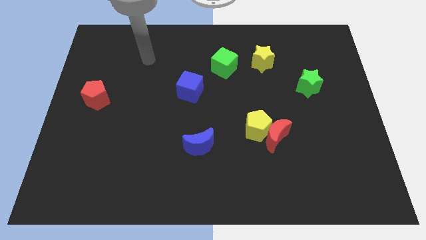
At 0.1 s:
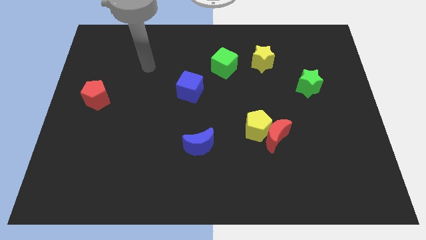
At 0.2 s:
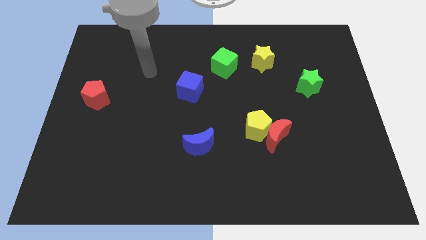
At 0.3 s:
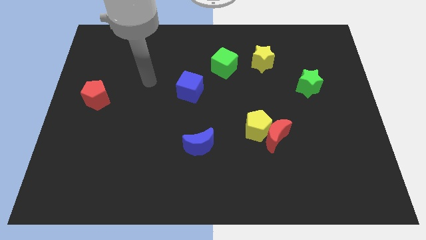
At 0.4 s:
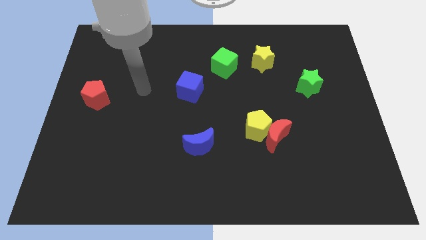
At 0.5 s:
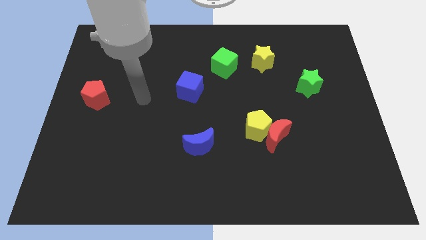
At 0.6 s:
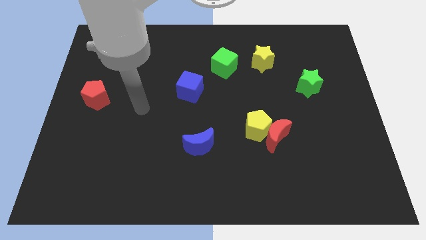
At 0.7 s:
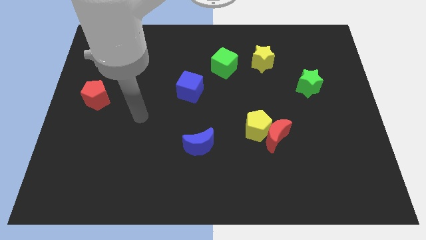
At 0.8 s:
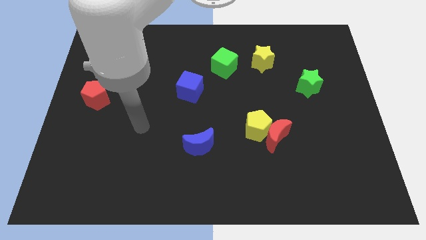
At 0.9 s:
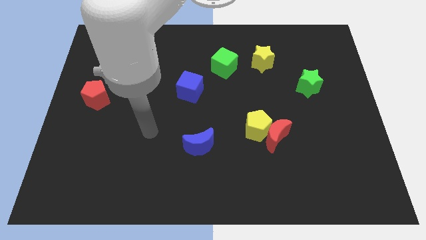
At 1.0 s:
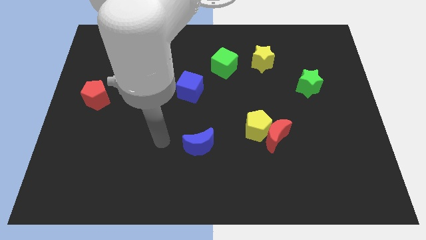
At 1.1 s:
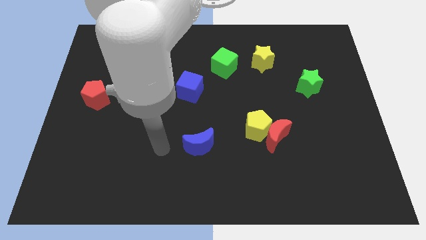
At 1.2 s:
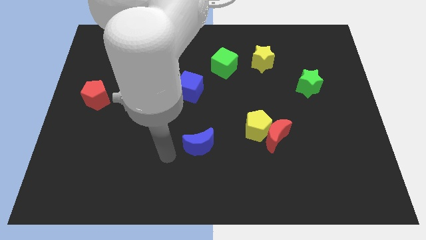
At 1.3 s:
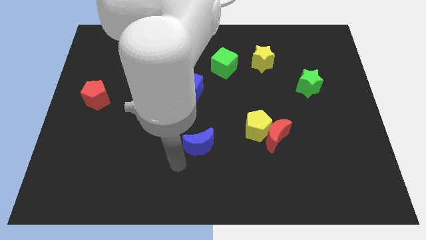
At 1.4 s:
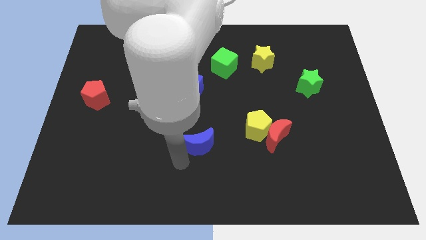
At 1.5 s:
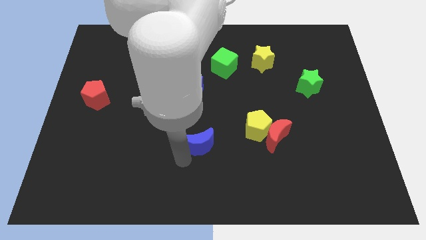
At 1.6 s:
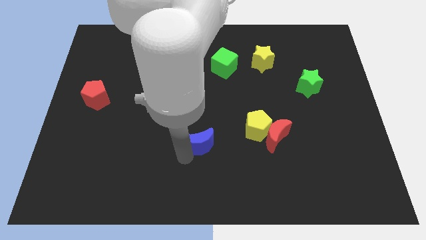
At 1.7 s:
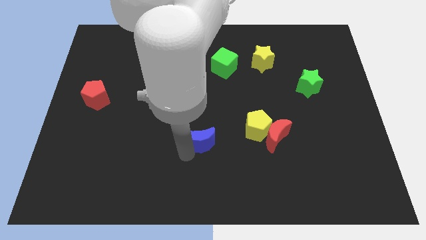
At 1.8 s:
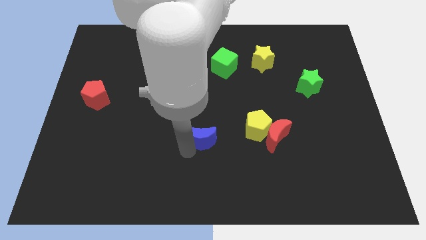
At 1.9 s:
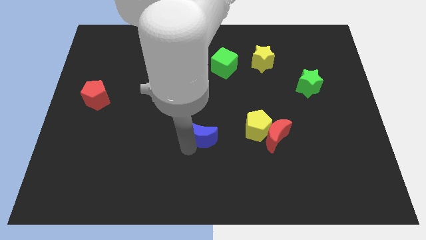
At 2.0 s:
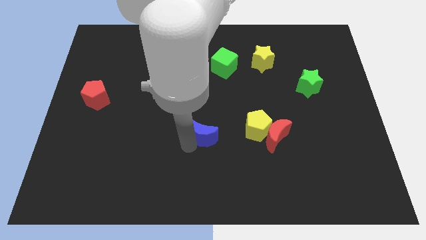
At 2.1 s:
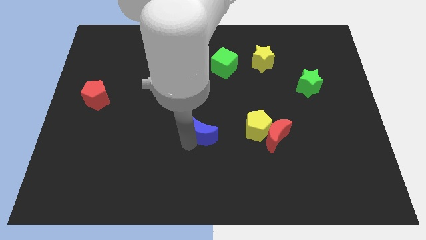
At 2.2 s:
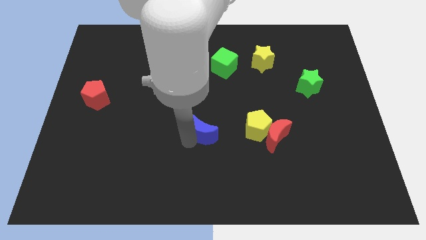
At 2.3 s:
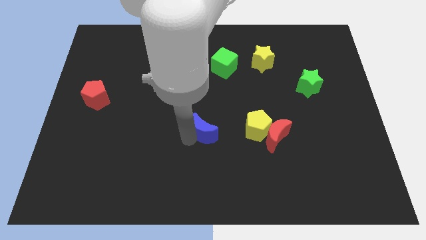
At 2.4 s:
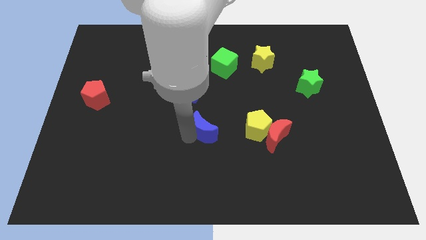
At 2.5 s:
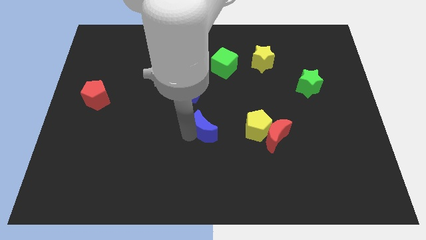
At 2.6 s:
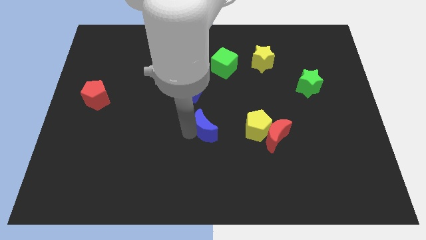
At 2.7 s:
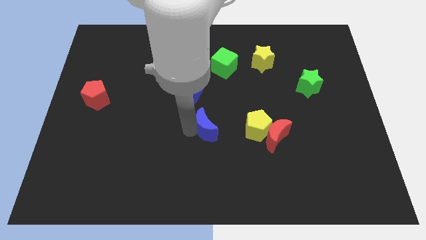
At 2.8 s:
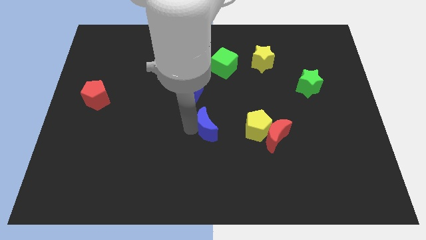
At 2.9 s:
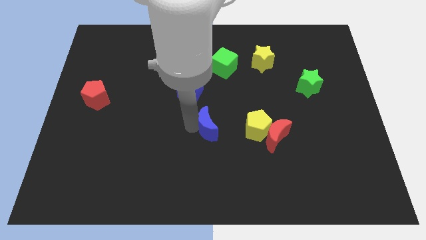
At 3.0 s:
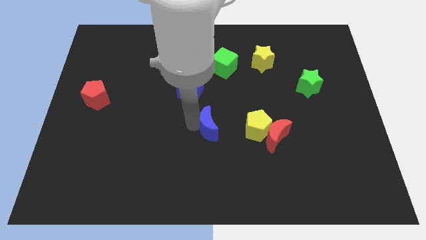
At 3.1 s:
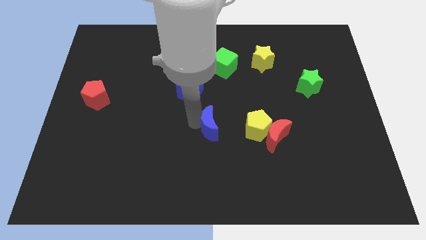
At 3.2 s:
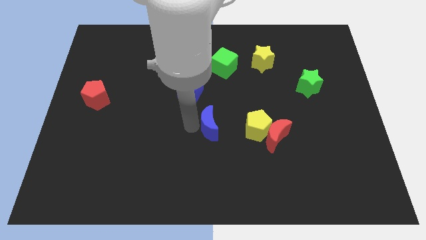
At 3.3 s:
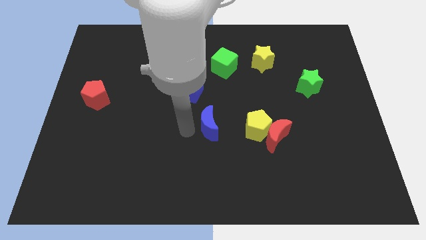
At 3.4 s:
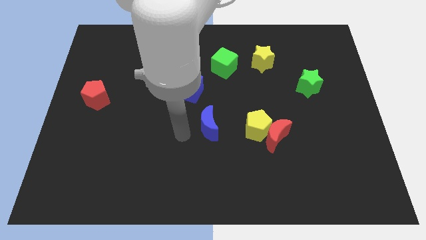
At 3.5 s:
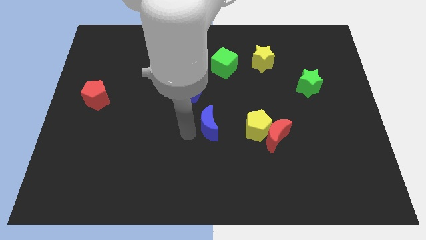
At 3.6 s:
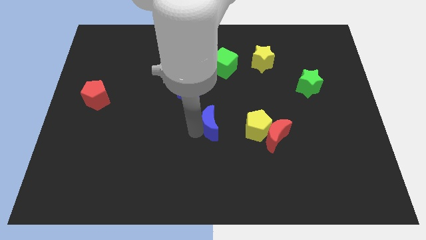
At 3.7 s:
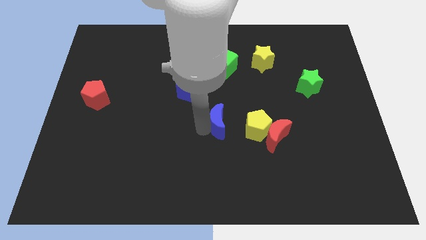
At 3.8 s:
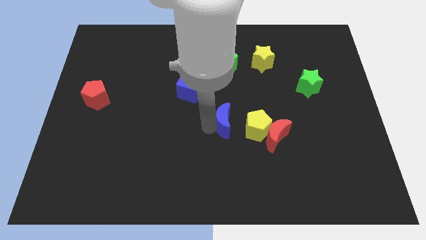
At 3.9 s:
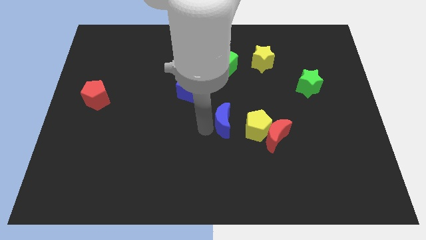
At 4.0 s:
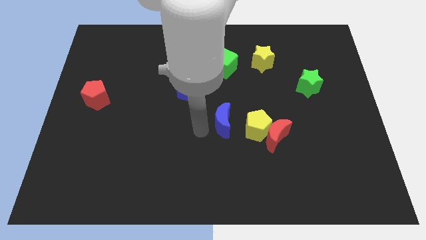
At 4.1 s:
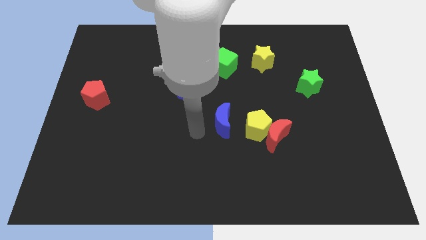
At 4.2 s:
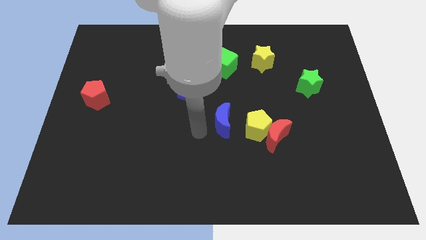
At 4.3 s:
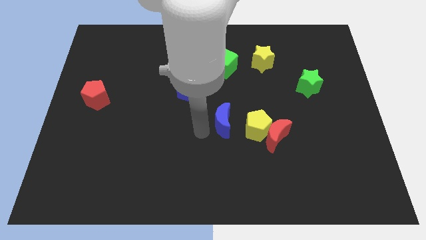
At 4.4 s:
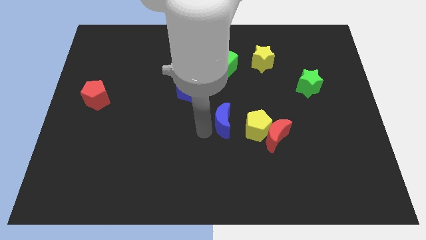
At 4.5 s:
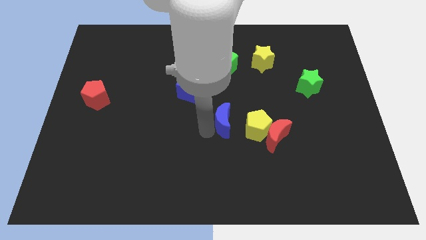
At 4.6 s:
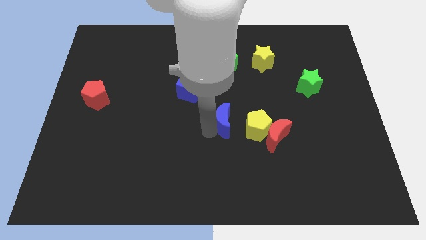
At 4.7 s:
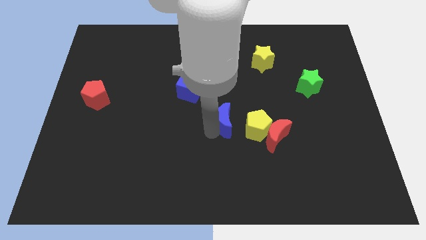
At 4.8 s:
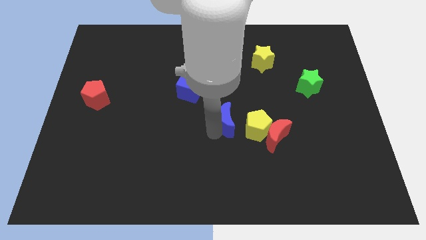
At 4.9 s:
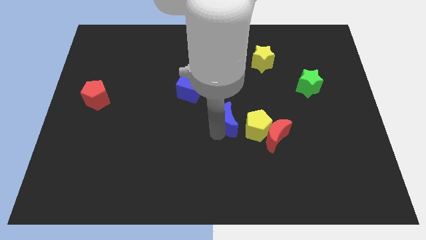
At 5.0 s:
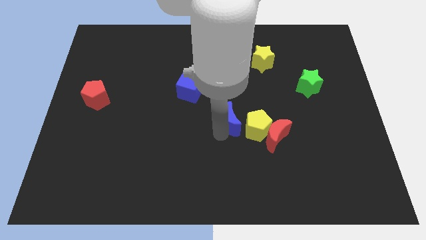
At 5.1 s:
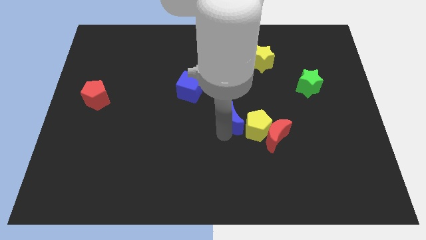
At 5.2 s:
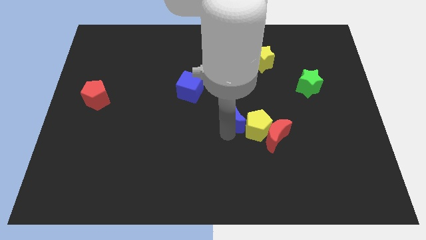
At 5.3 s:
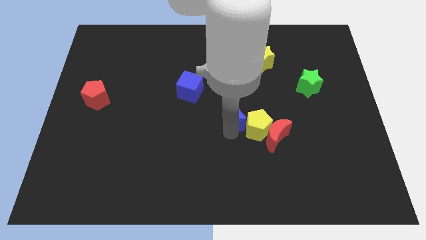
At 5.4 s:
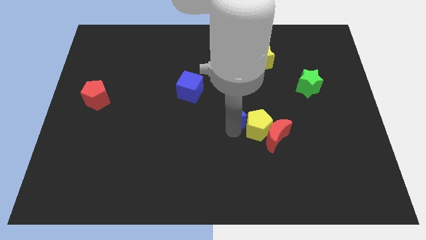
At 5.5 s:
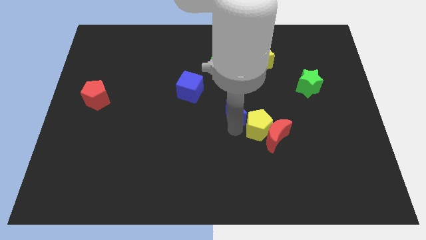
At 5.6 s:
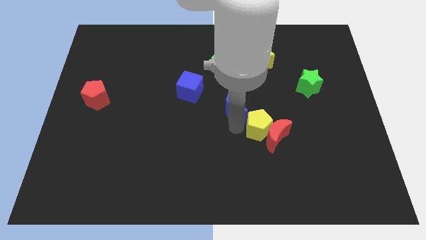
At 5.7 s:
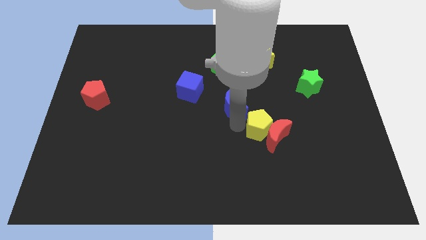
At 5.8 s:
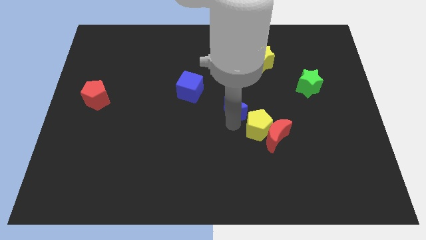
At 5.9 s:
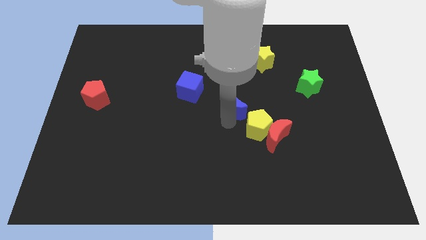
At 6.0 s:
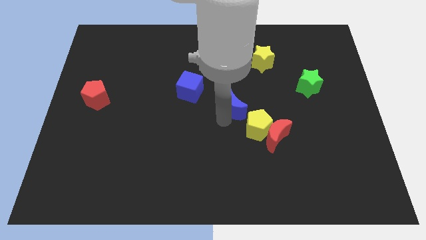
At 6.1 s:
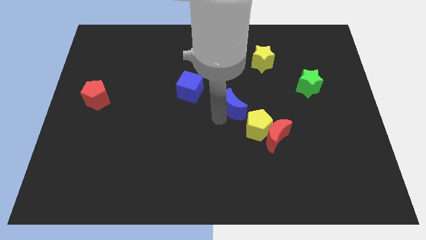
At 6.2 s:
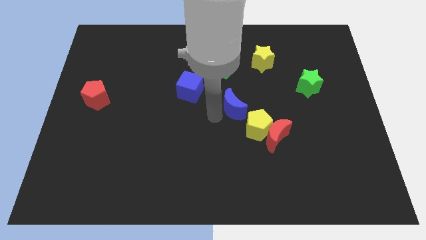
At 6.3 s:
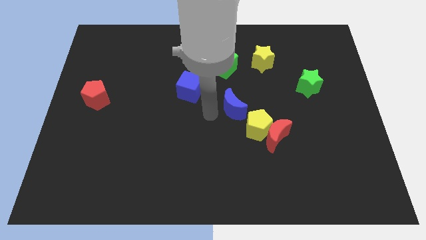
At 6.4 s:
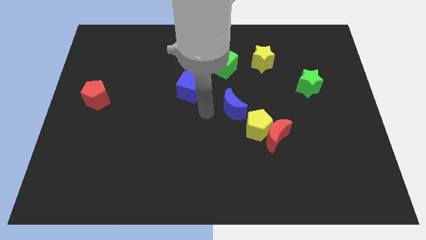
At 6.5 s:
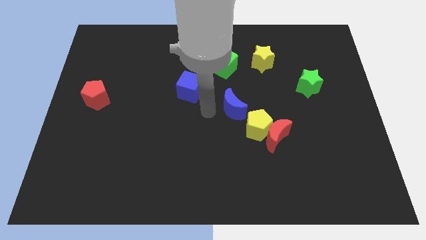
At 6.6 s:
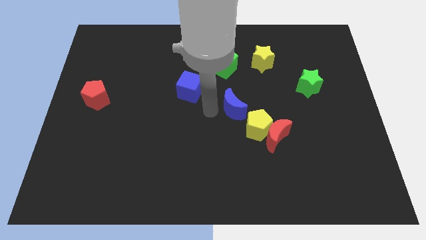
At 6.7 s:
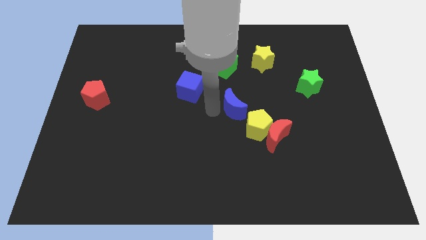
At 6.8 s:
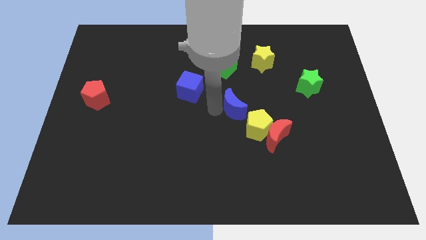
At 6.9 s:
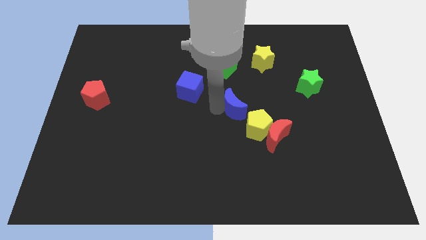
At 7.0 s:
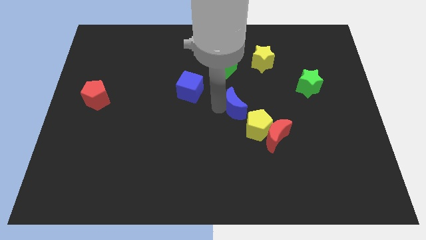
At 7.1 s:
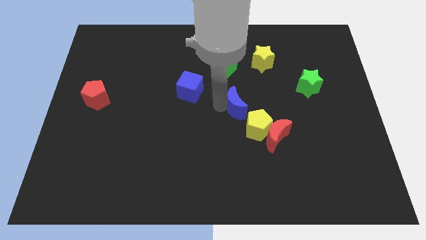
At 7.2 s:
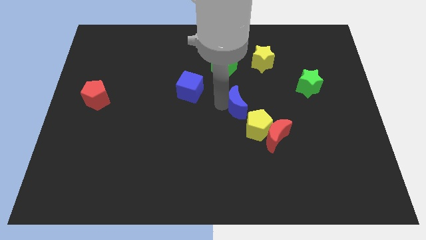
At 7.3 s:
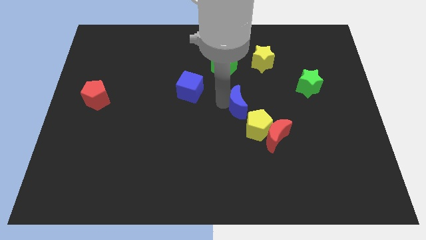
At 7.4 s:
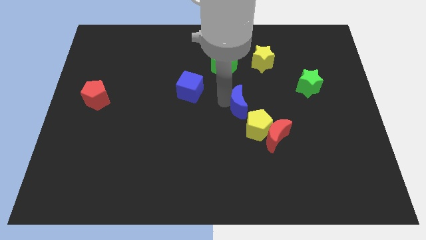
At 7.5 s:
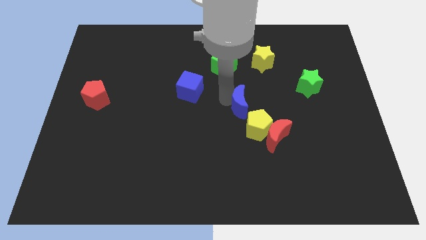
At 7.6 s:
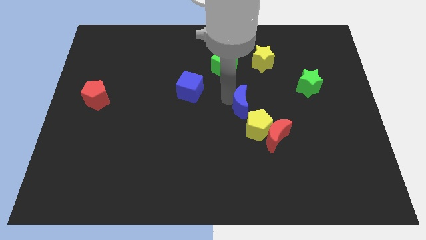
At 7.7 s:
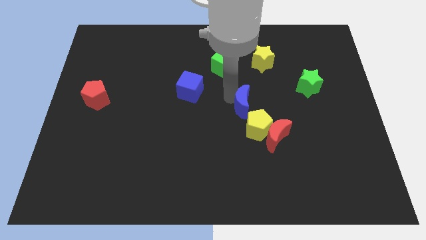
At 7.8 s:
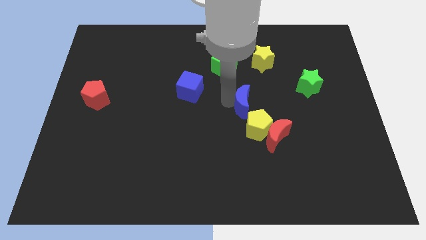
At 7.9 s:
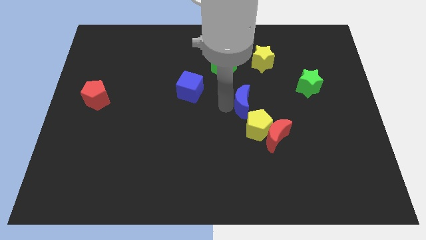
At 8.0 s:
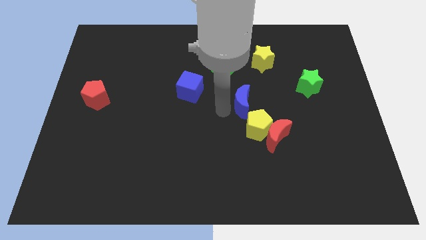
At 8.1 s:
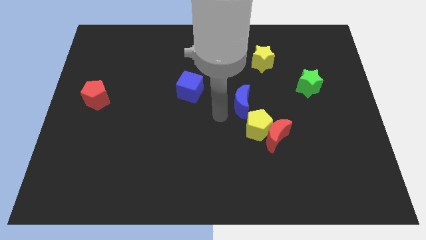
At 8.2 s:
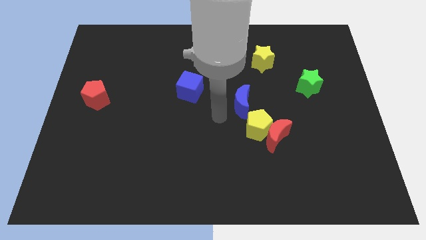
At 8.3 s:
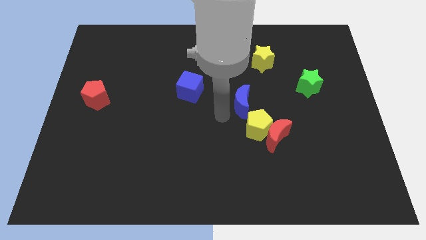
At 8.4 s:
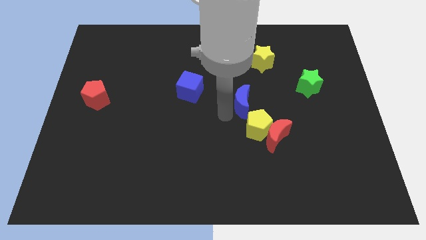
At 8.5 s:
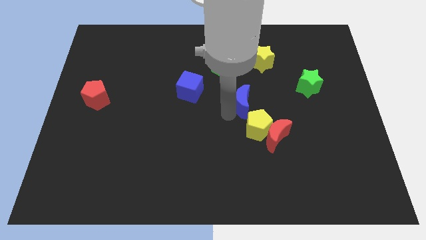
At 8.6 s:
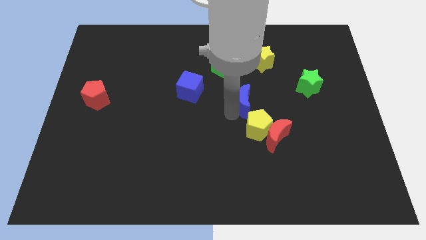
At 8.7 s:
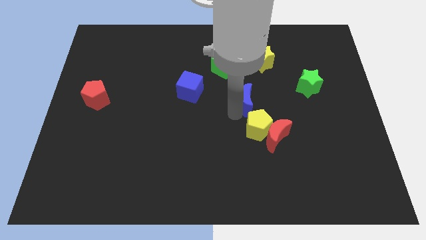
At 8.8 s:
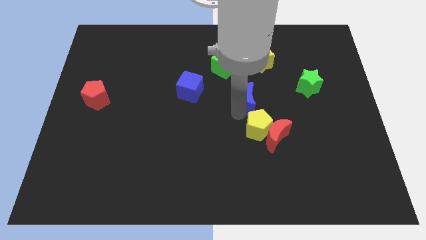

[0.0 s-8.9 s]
slide the blue moon to the bottom side of the yellow star
